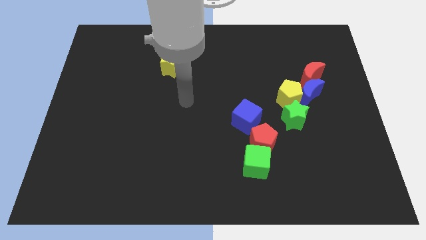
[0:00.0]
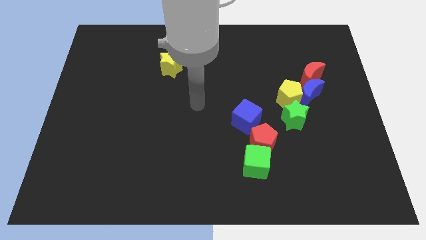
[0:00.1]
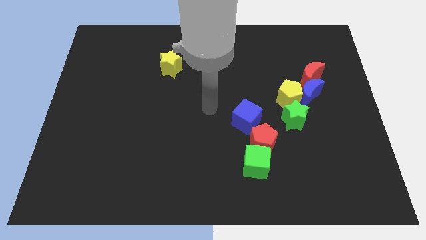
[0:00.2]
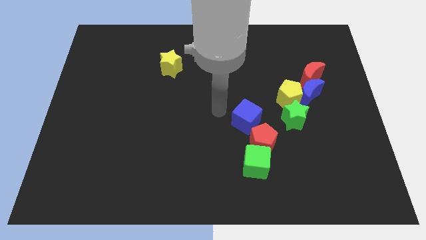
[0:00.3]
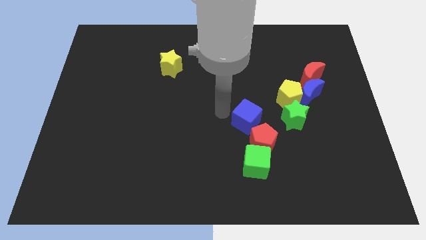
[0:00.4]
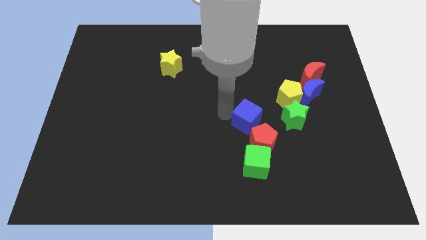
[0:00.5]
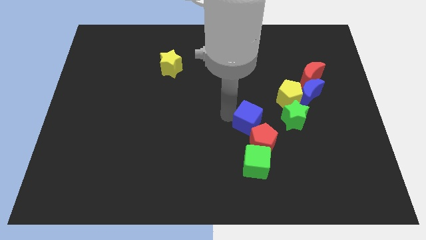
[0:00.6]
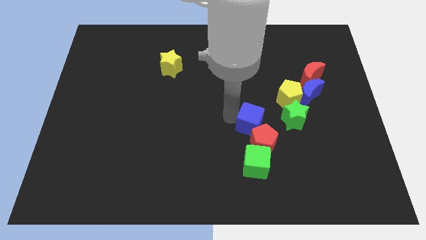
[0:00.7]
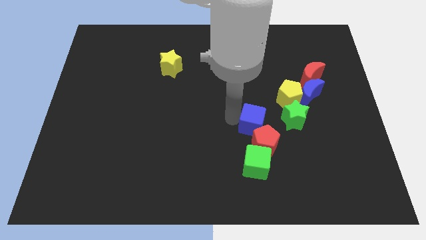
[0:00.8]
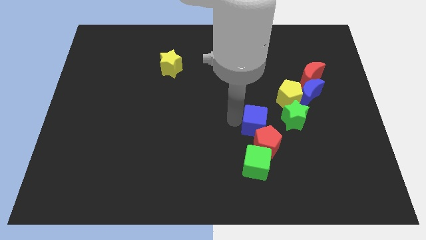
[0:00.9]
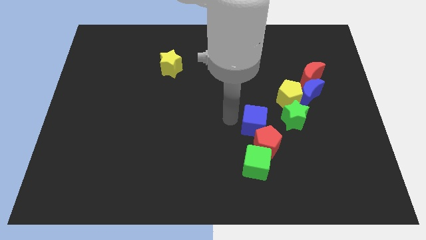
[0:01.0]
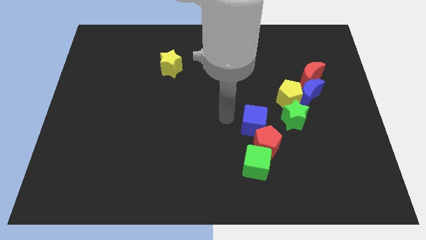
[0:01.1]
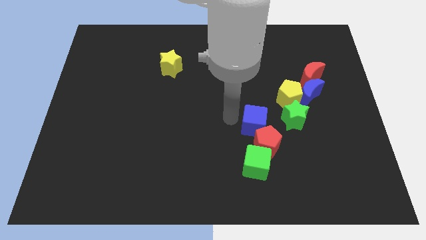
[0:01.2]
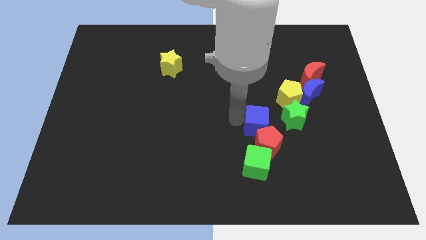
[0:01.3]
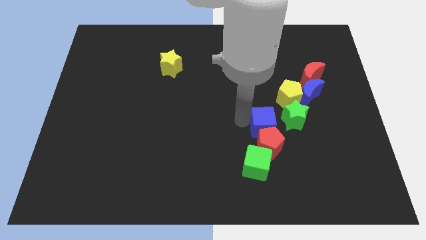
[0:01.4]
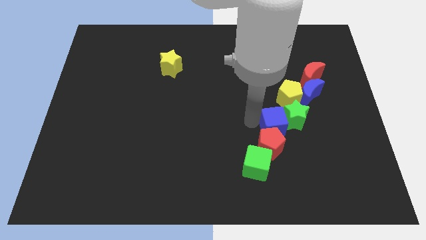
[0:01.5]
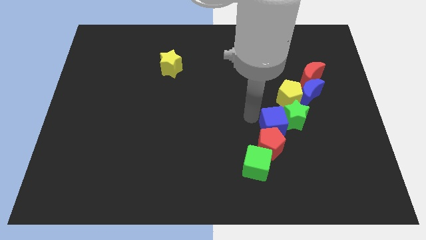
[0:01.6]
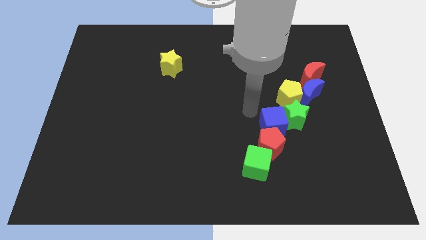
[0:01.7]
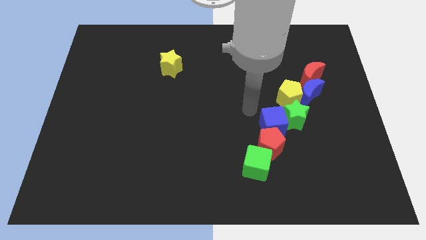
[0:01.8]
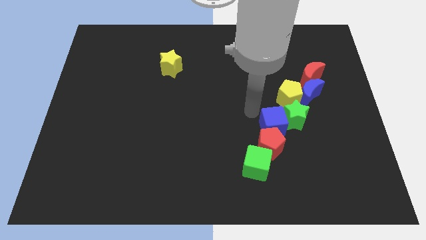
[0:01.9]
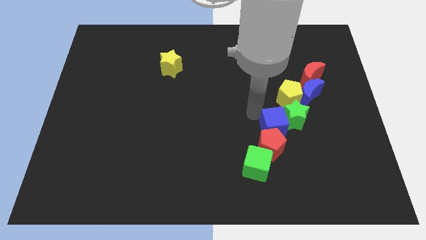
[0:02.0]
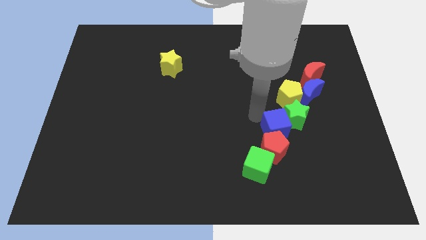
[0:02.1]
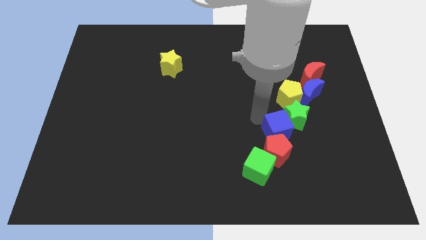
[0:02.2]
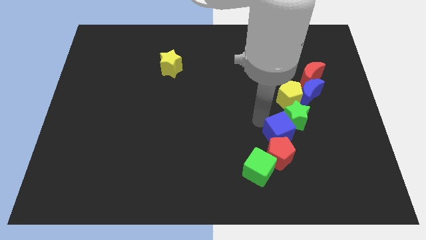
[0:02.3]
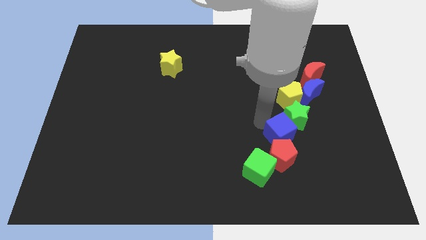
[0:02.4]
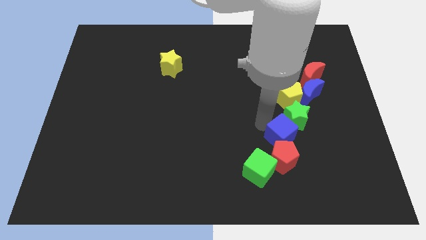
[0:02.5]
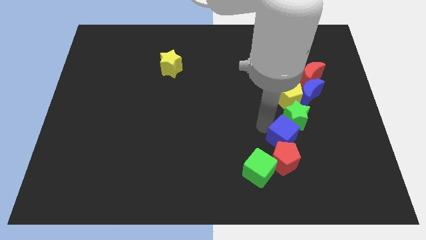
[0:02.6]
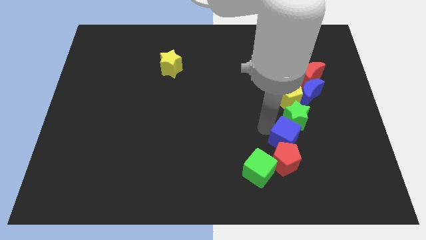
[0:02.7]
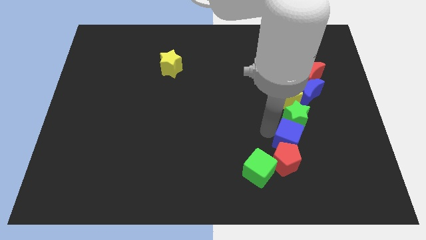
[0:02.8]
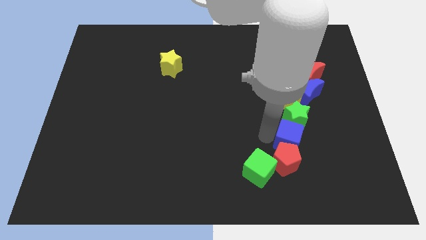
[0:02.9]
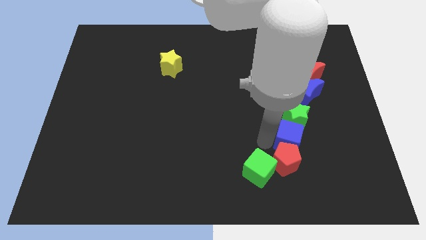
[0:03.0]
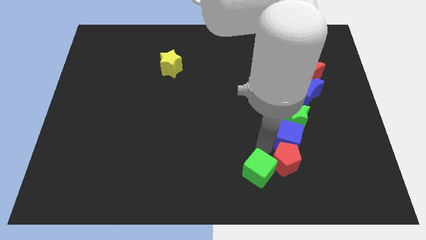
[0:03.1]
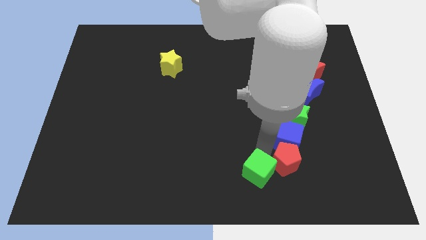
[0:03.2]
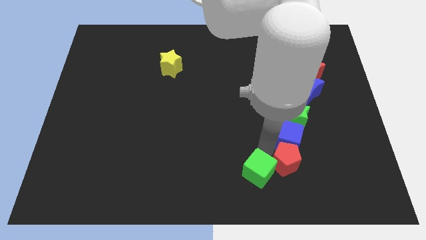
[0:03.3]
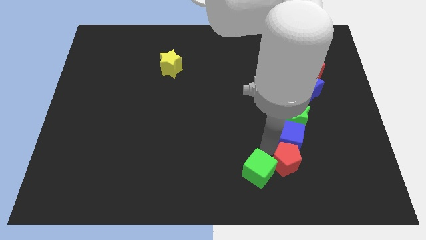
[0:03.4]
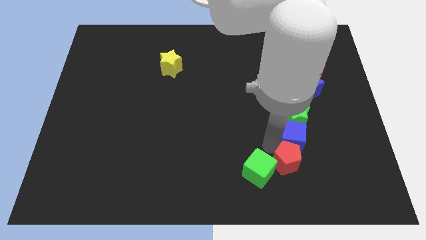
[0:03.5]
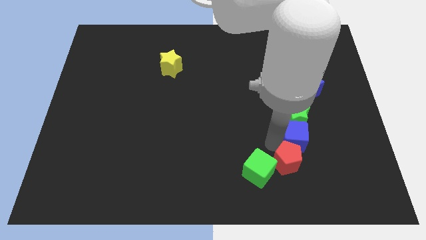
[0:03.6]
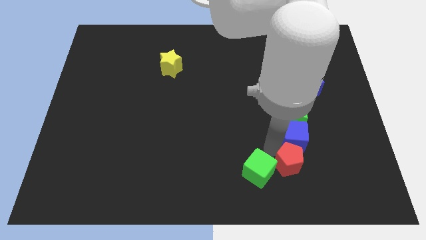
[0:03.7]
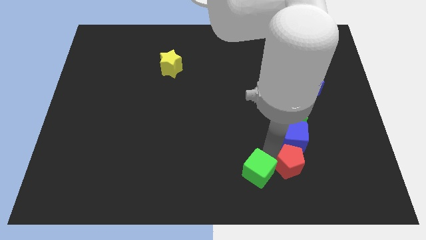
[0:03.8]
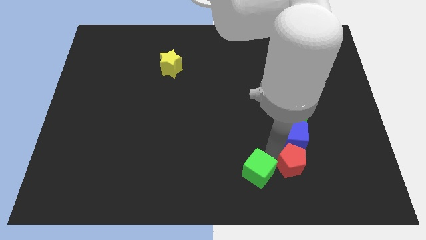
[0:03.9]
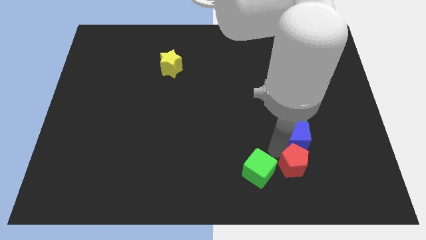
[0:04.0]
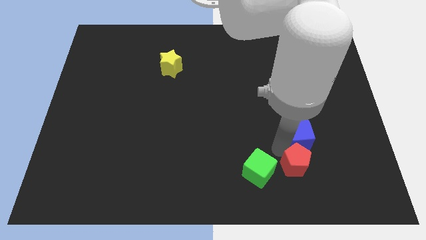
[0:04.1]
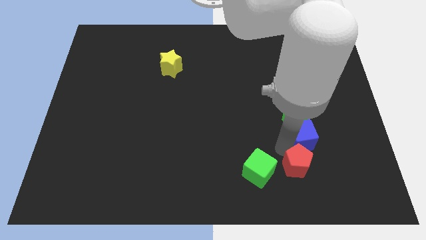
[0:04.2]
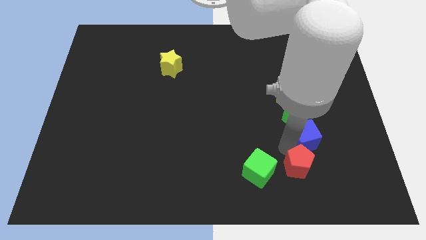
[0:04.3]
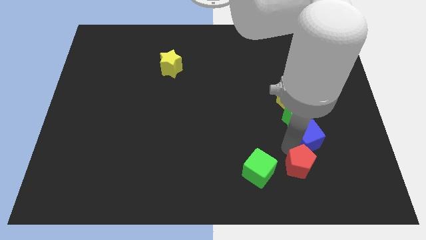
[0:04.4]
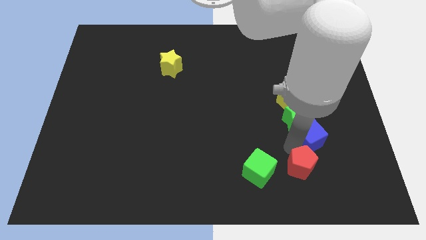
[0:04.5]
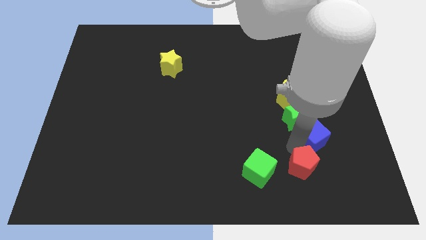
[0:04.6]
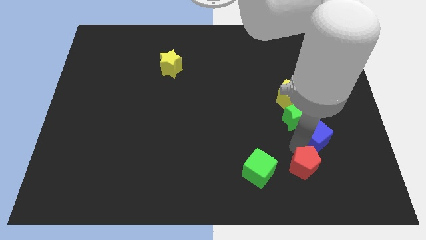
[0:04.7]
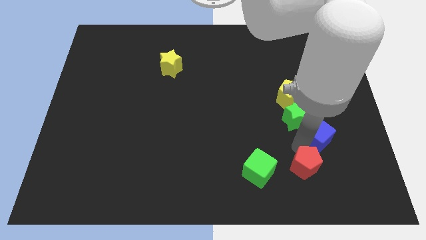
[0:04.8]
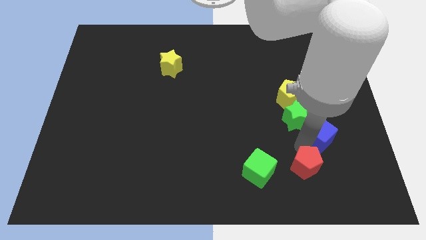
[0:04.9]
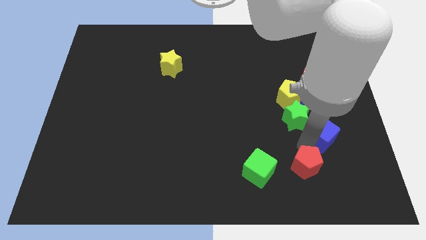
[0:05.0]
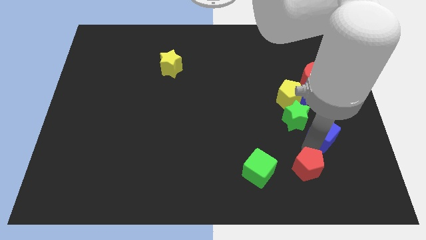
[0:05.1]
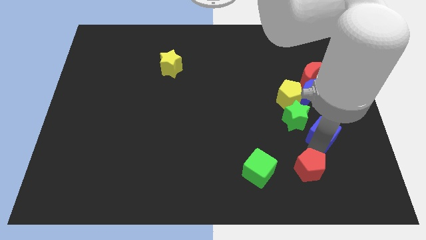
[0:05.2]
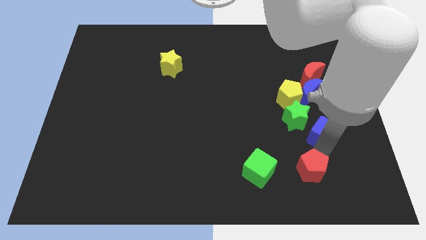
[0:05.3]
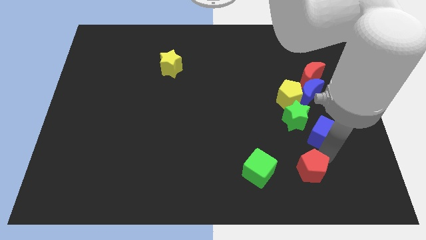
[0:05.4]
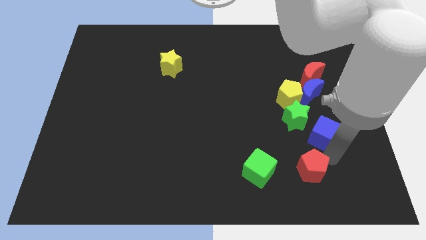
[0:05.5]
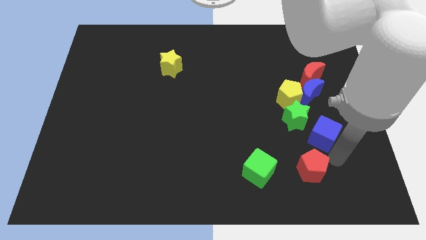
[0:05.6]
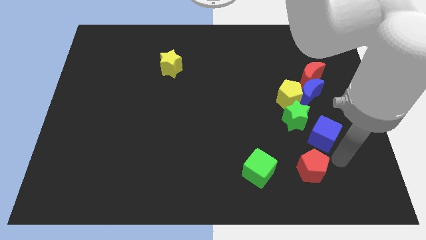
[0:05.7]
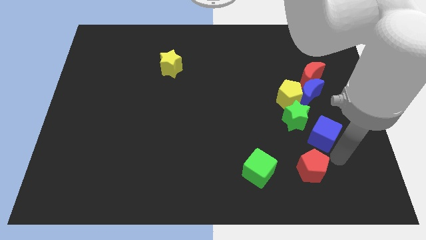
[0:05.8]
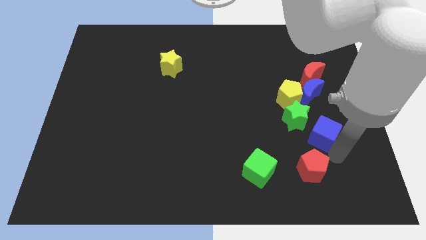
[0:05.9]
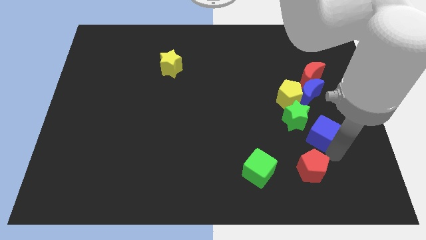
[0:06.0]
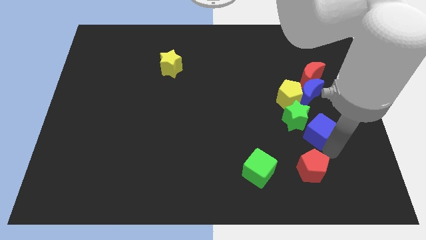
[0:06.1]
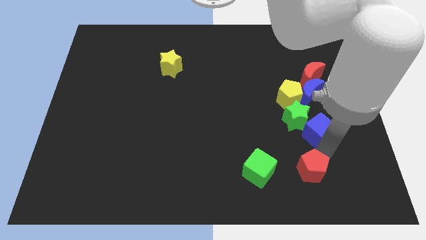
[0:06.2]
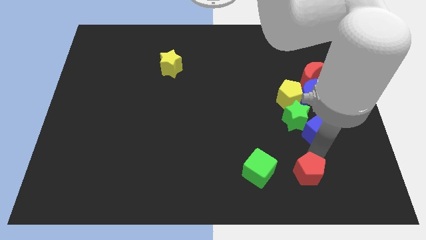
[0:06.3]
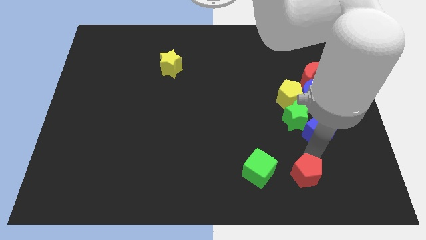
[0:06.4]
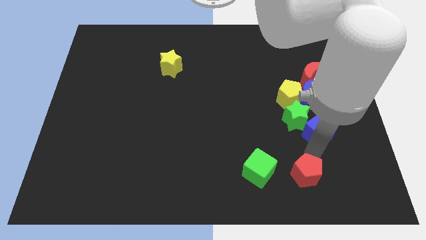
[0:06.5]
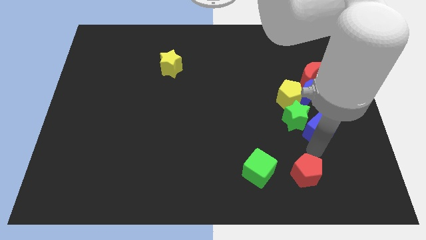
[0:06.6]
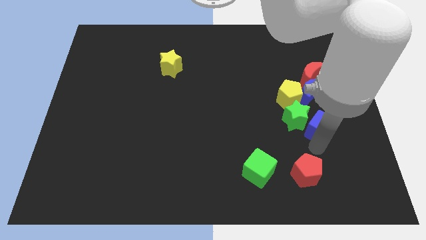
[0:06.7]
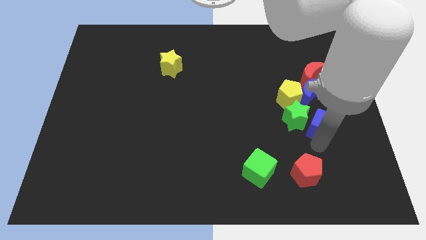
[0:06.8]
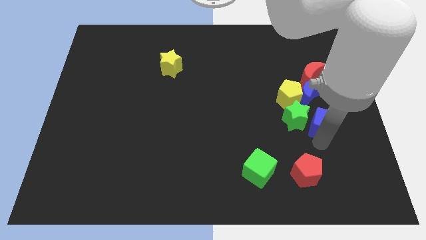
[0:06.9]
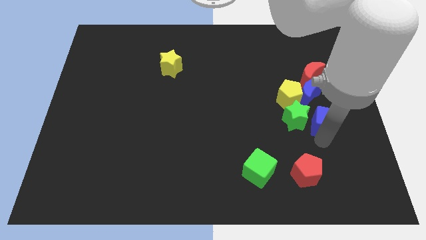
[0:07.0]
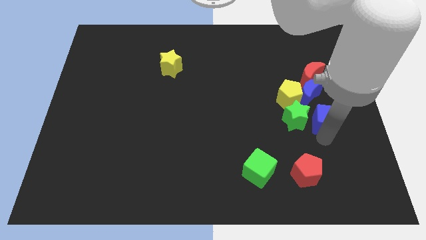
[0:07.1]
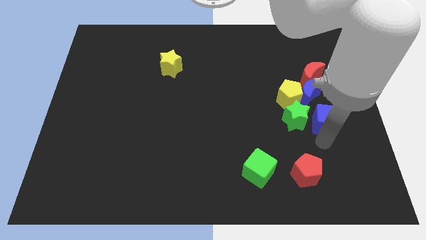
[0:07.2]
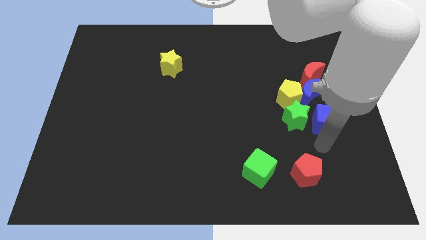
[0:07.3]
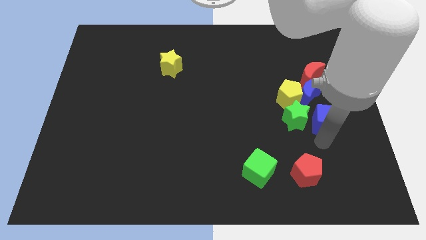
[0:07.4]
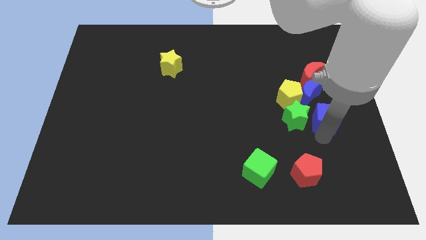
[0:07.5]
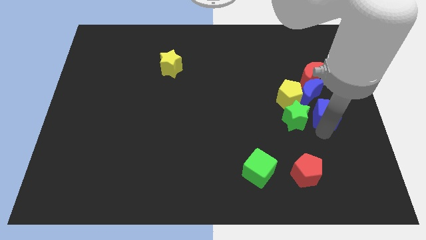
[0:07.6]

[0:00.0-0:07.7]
move the blue cube to the right side of the board

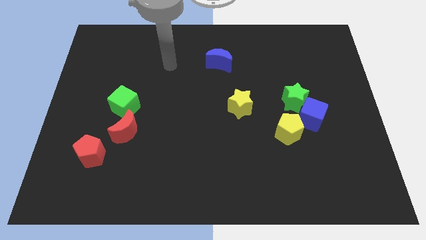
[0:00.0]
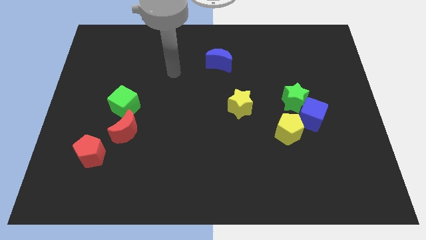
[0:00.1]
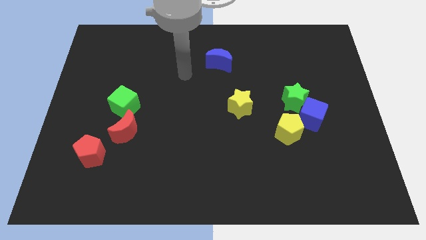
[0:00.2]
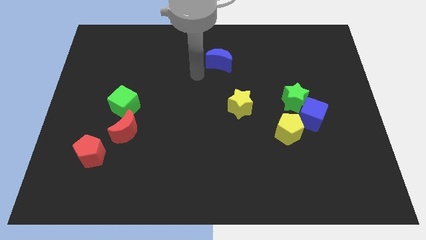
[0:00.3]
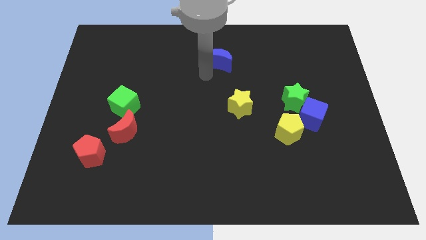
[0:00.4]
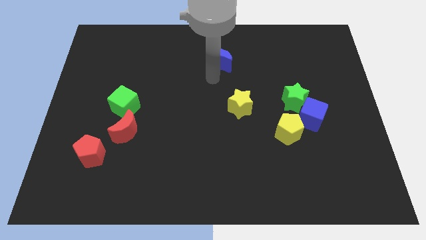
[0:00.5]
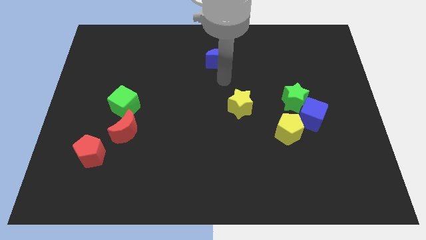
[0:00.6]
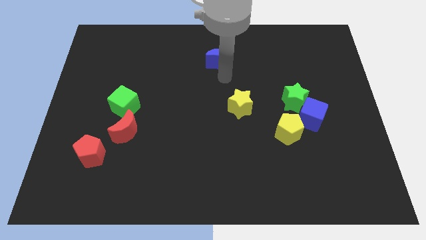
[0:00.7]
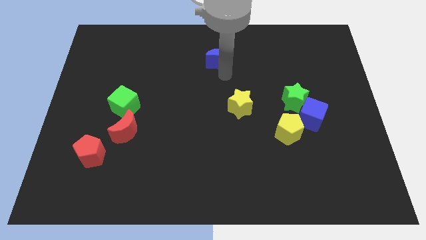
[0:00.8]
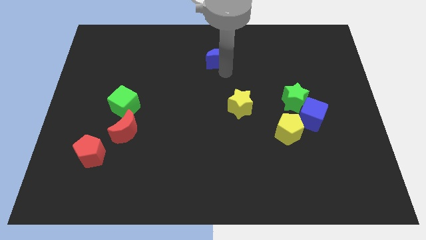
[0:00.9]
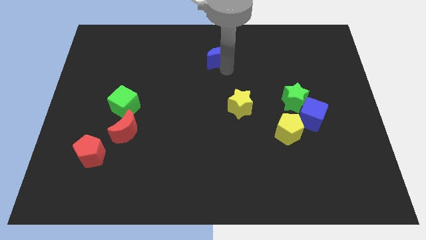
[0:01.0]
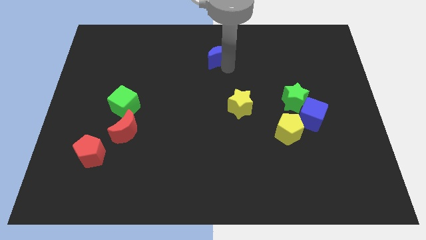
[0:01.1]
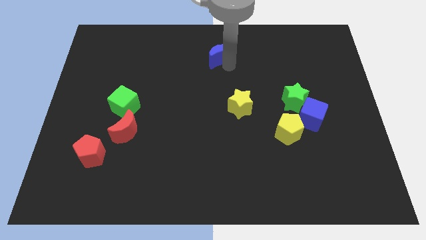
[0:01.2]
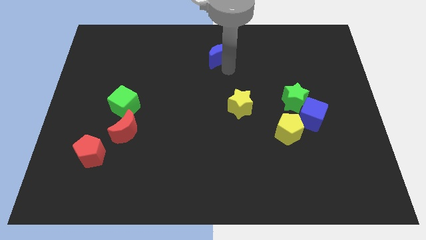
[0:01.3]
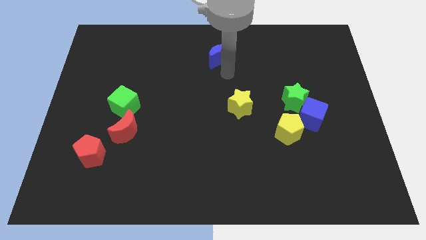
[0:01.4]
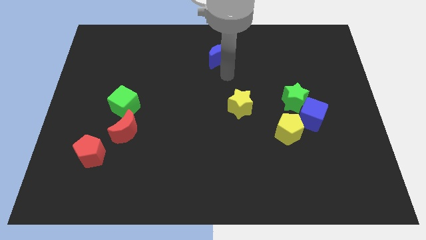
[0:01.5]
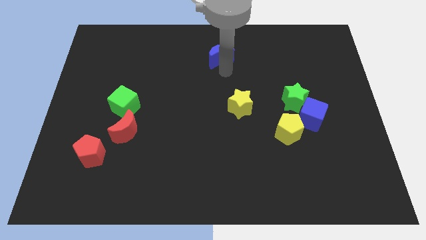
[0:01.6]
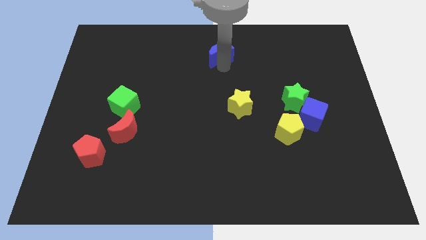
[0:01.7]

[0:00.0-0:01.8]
put the blue moon to the top
